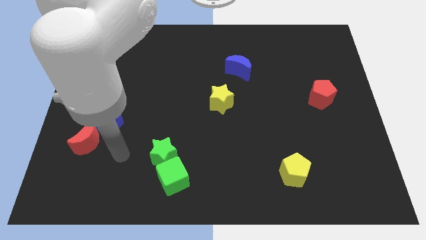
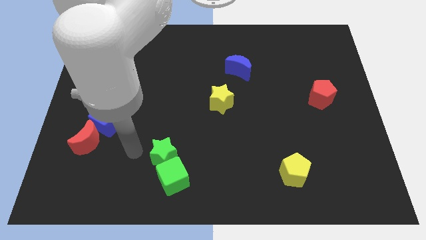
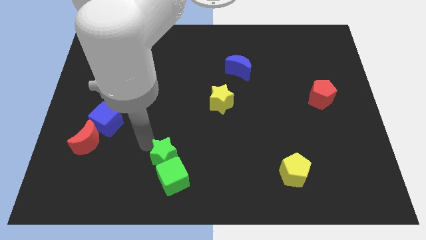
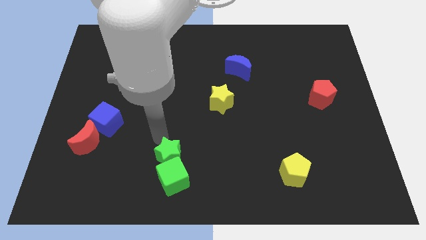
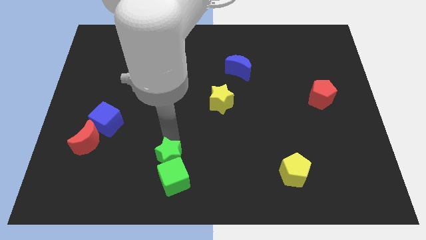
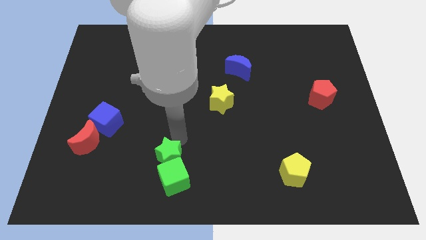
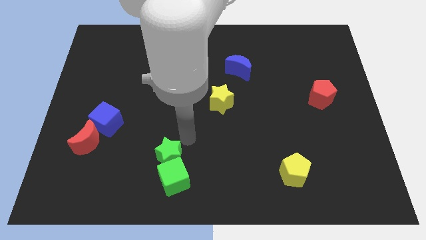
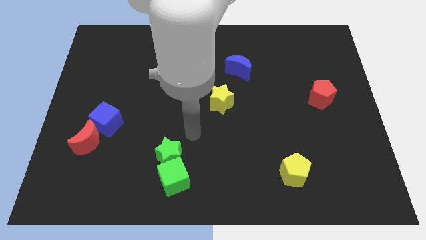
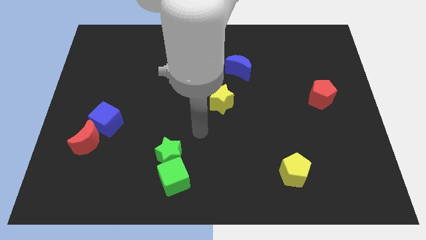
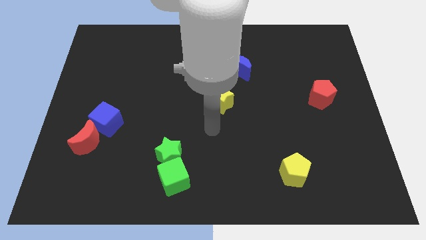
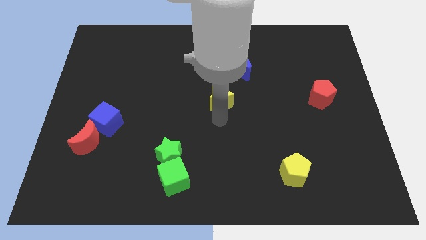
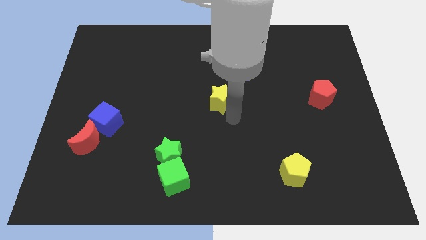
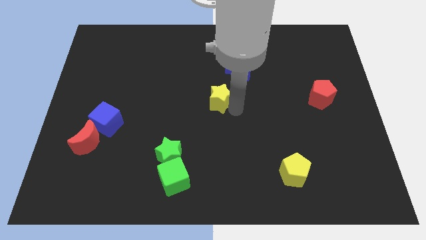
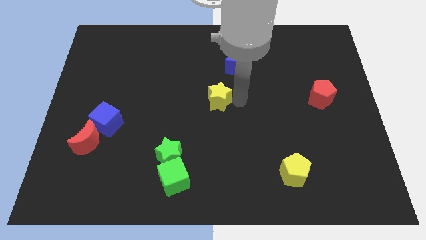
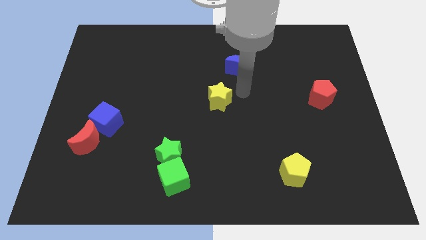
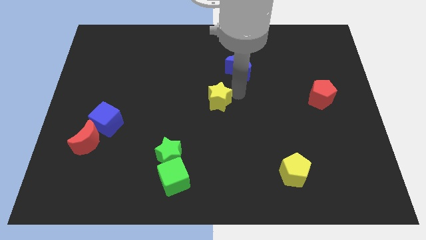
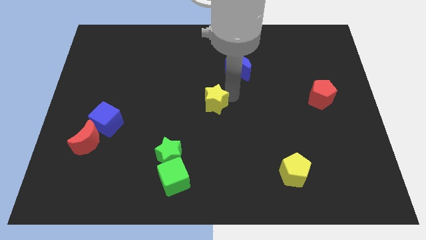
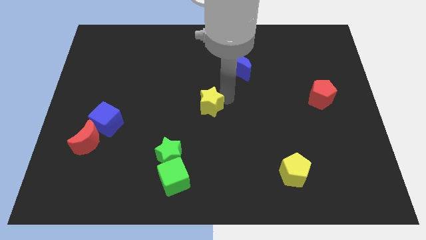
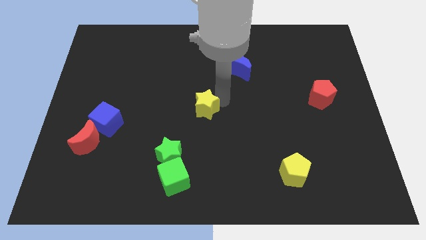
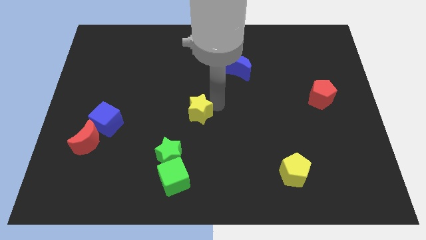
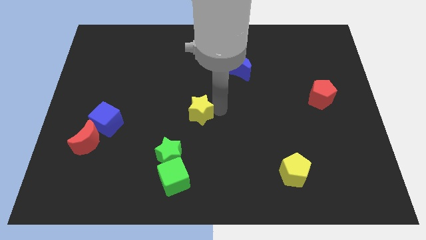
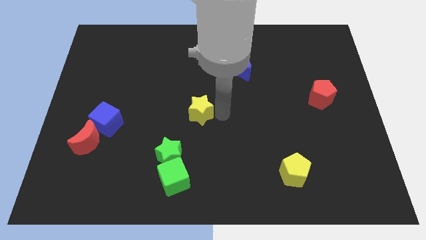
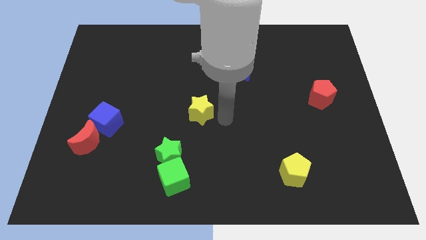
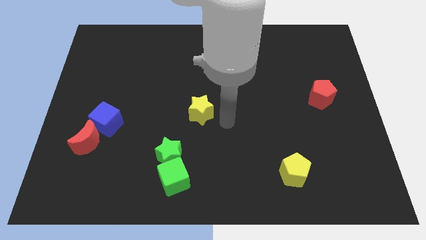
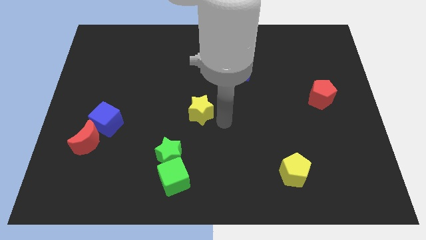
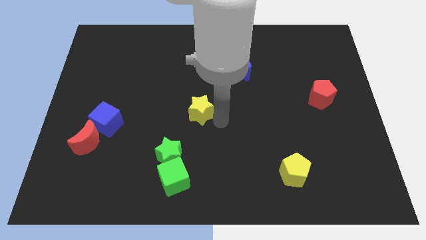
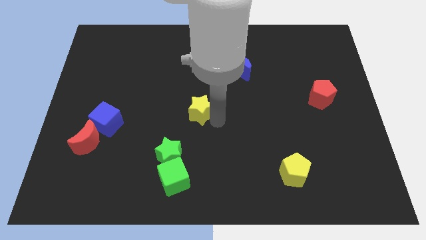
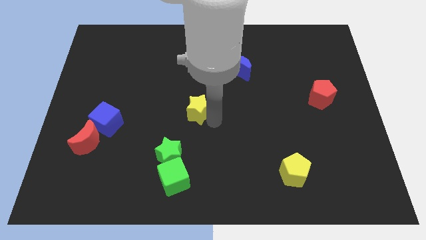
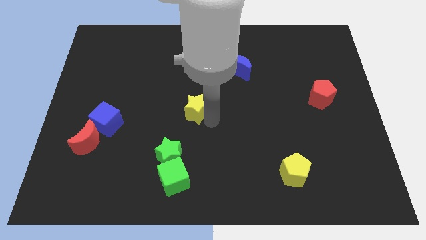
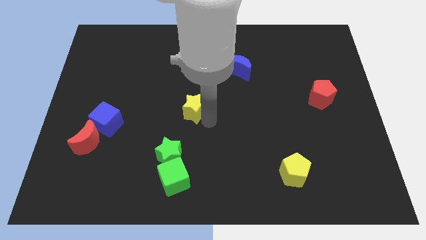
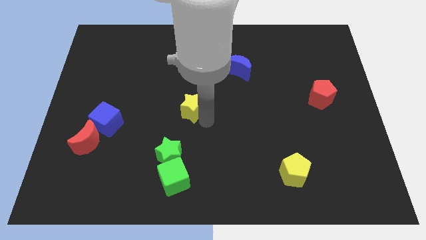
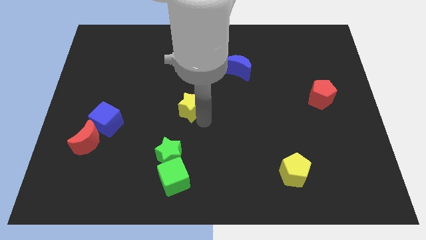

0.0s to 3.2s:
push the yellow star to the left a little

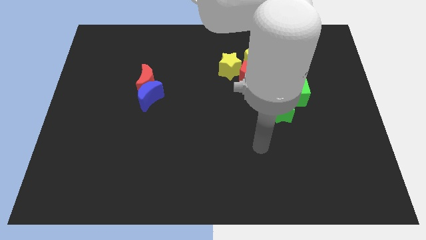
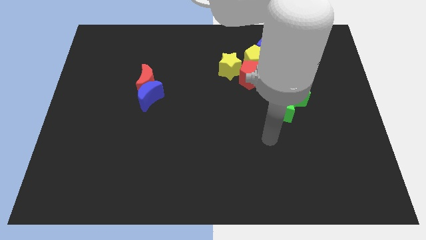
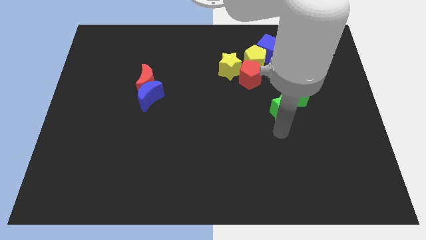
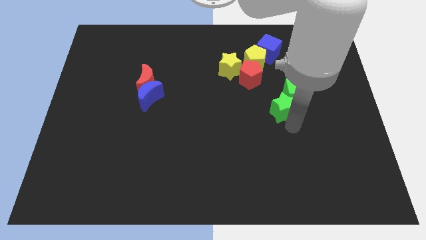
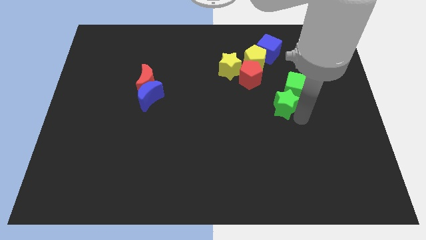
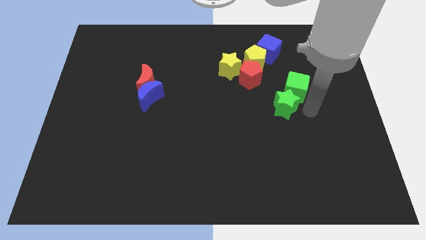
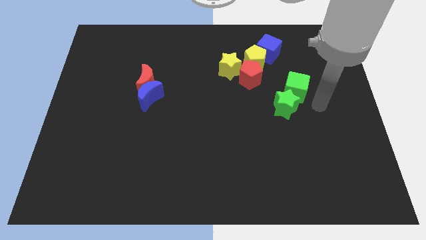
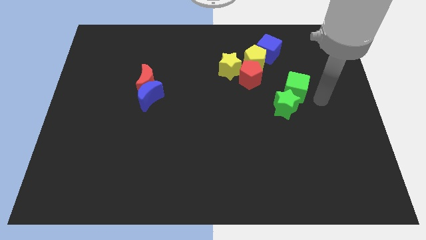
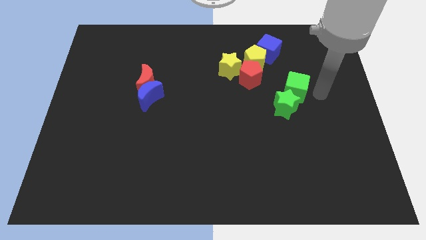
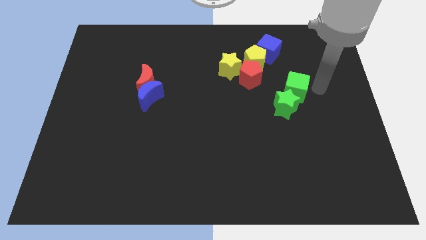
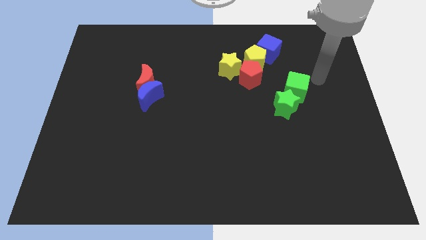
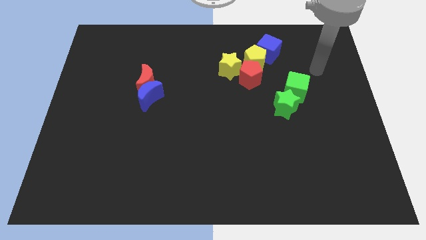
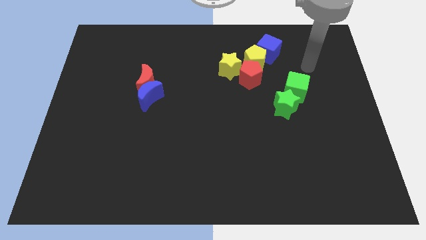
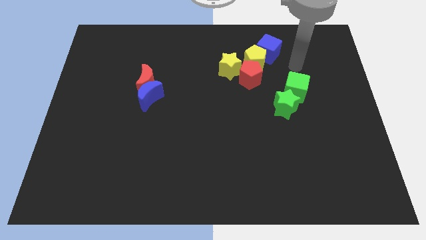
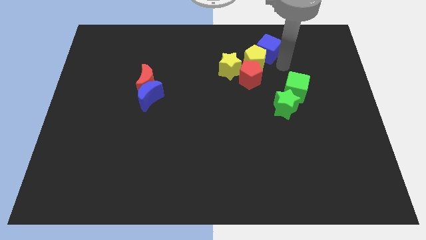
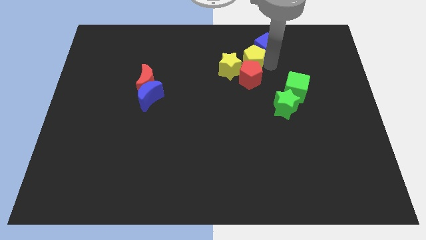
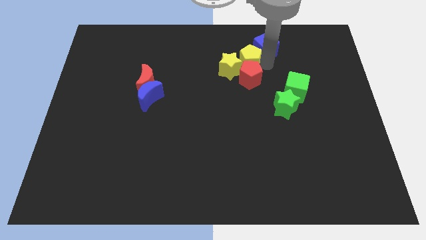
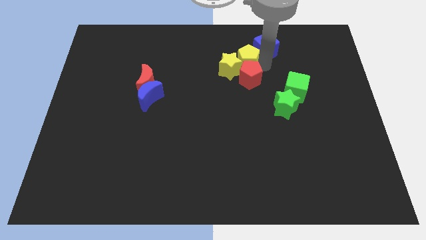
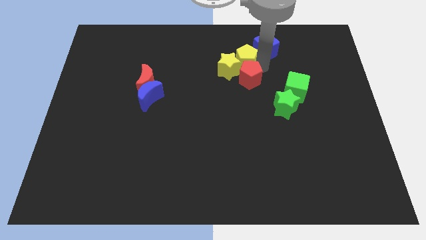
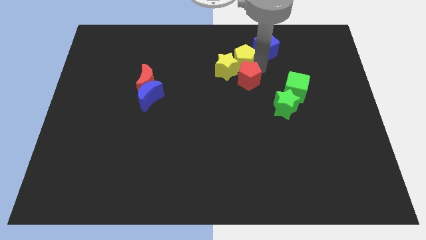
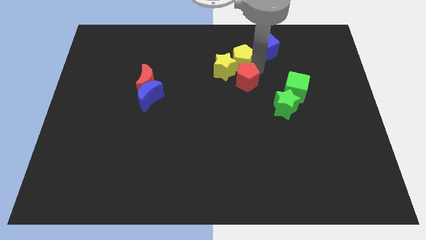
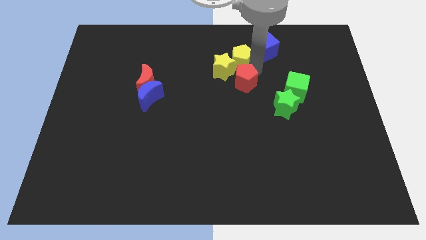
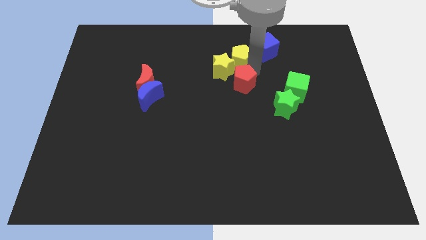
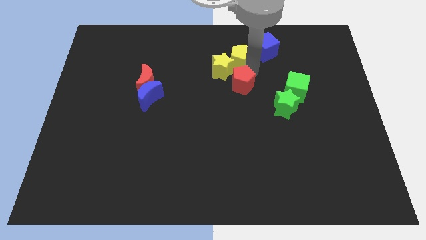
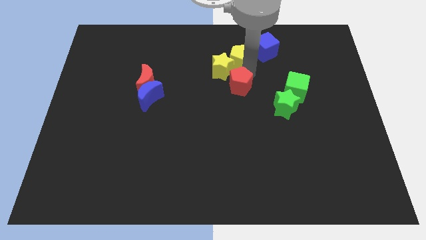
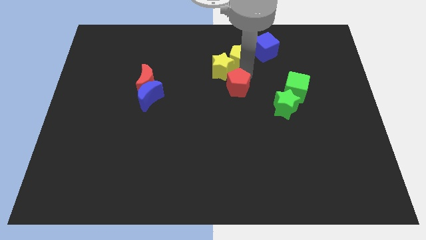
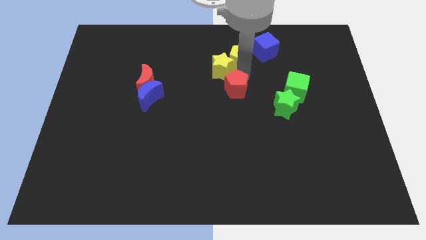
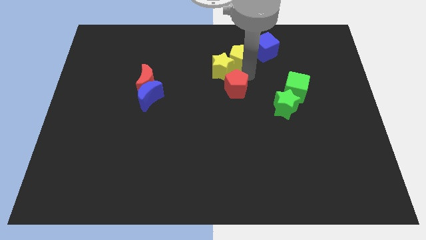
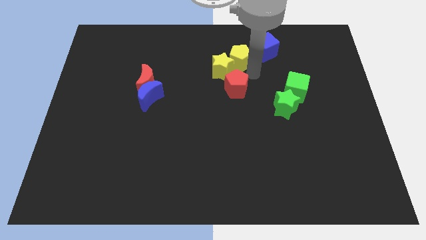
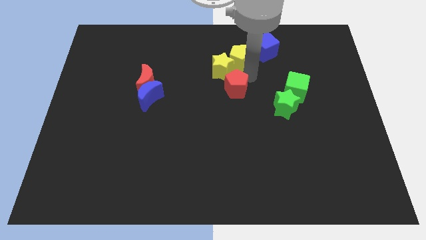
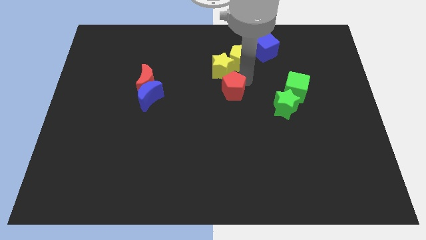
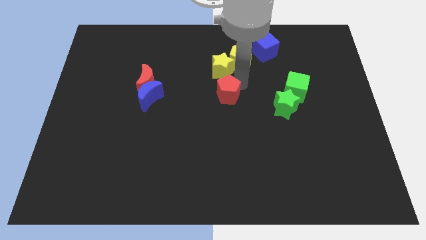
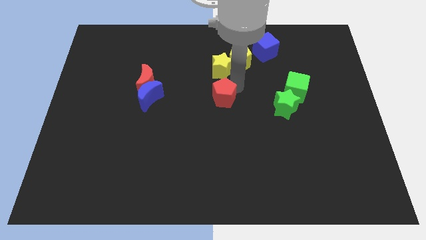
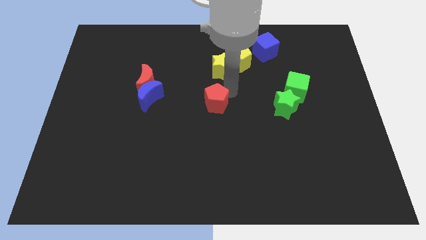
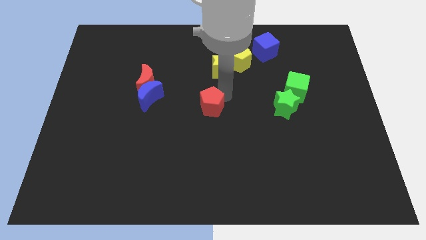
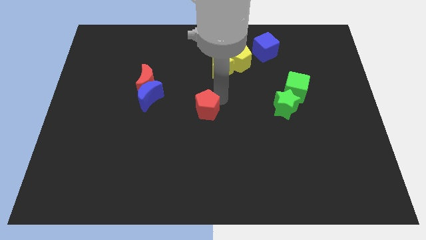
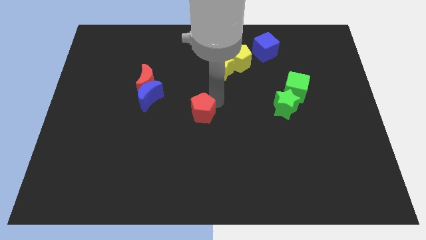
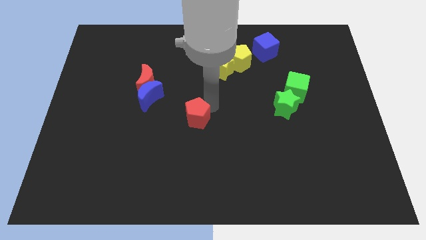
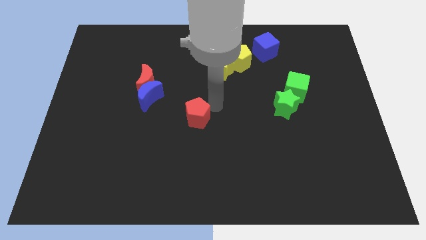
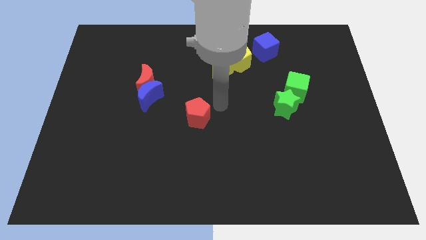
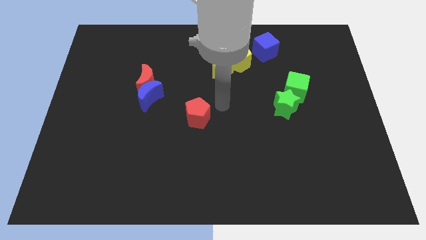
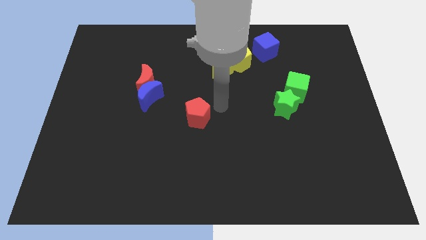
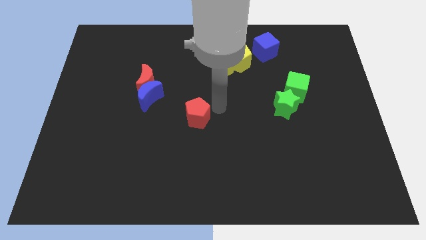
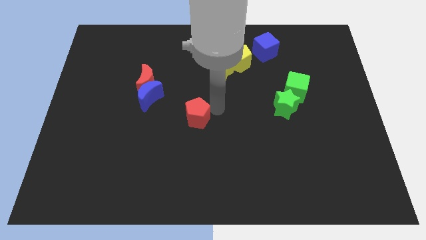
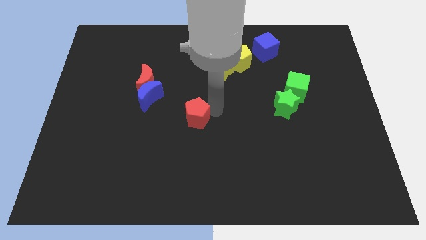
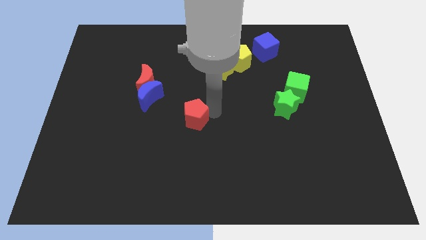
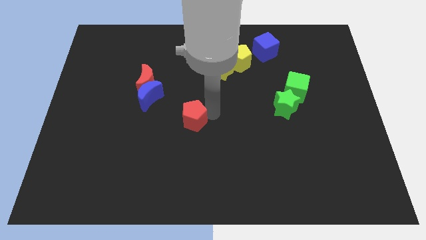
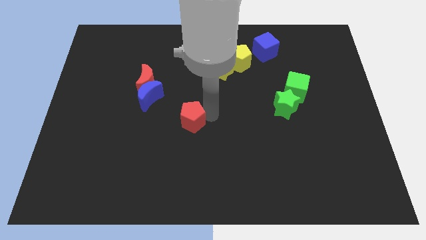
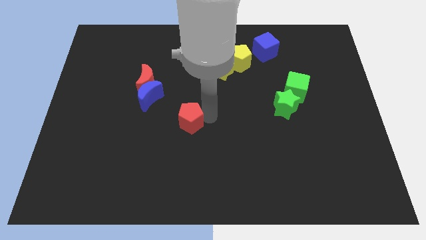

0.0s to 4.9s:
push the red pentagon down and to the left diagonally

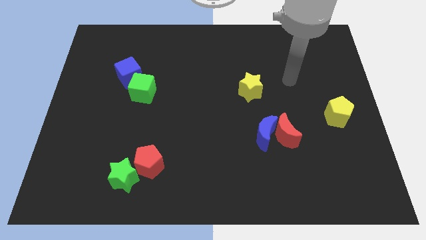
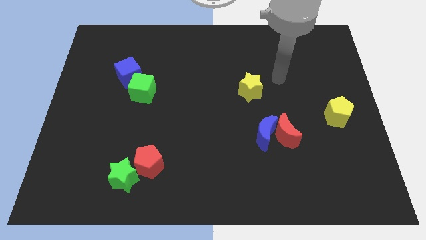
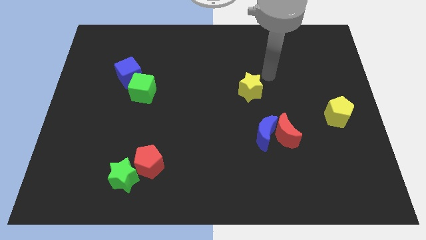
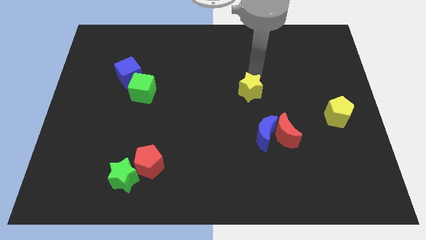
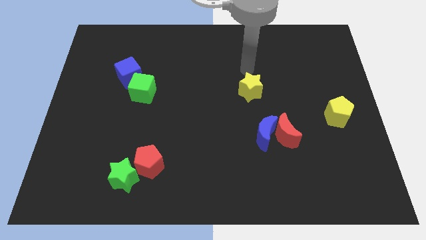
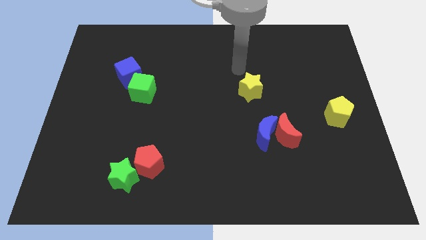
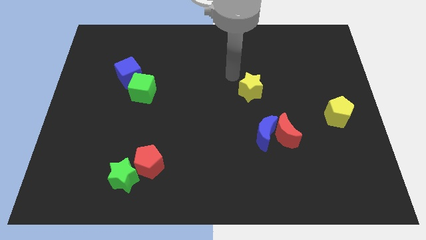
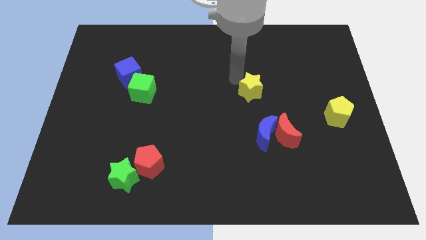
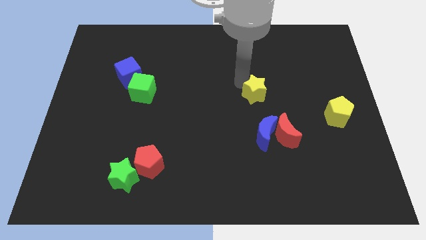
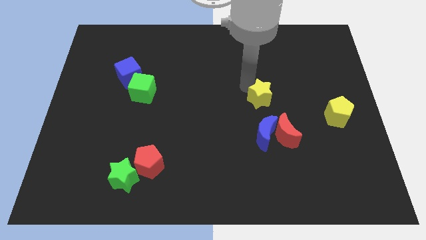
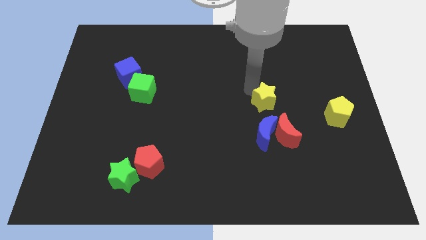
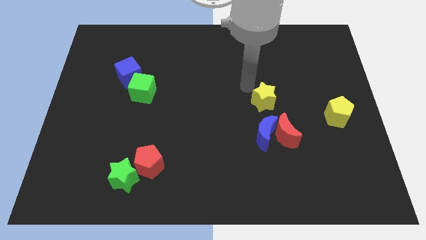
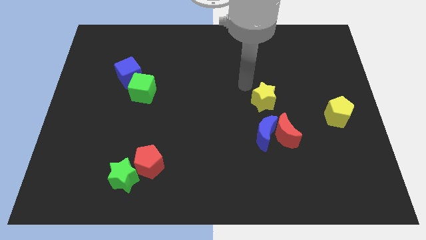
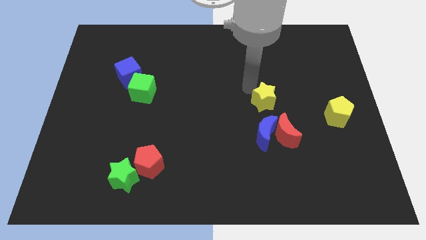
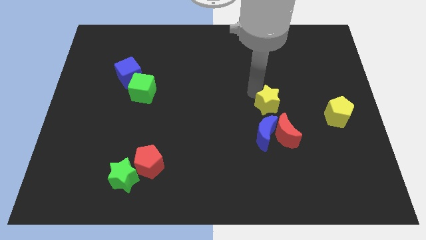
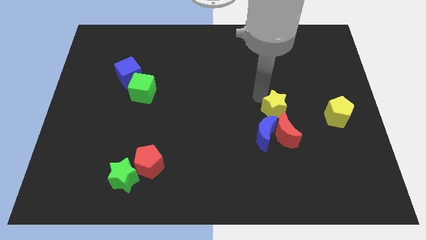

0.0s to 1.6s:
push the yellow star a little down and right diagonally
